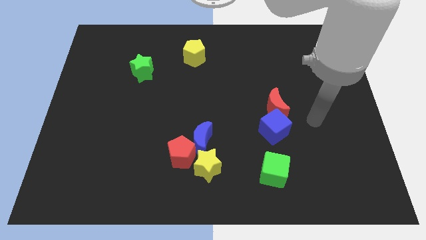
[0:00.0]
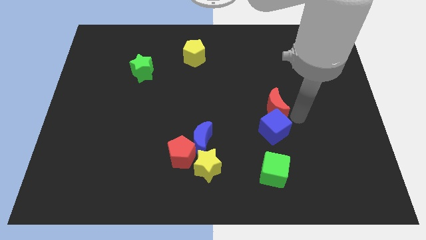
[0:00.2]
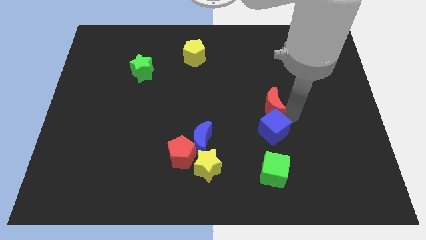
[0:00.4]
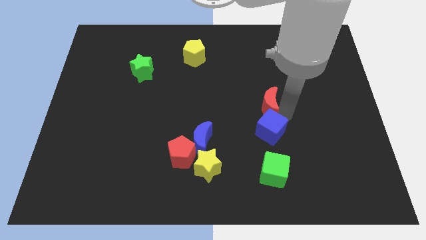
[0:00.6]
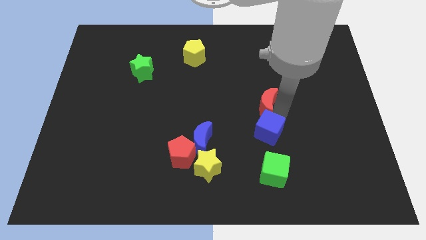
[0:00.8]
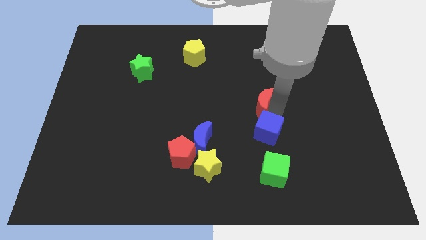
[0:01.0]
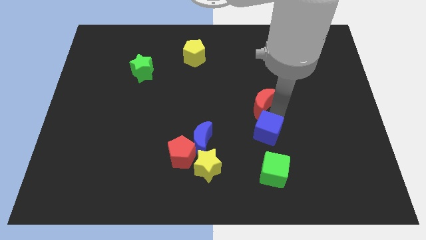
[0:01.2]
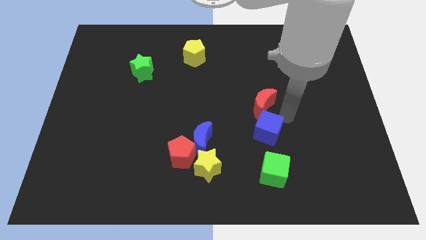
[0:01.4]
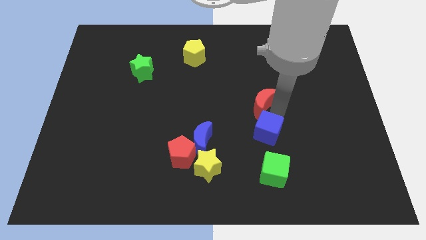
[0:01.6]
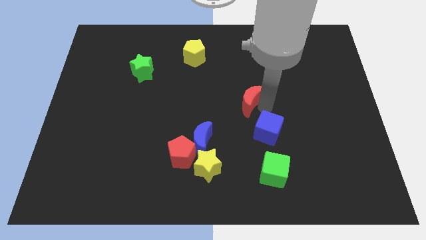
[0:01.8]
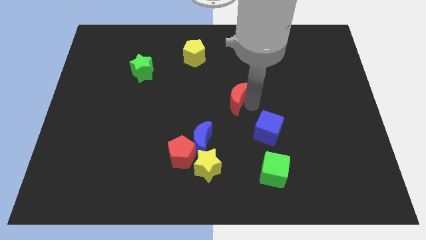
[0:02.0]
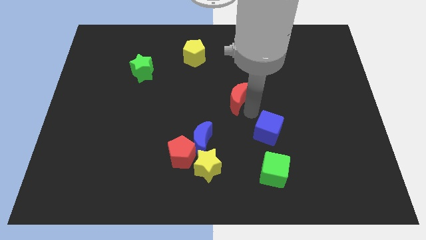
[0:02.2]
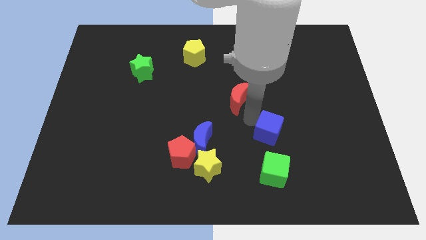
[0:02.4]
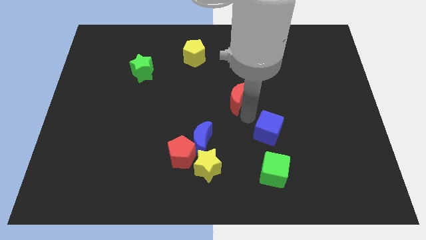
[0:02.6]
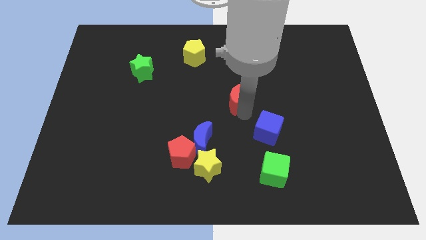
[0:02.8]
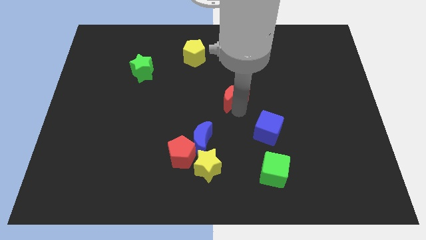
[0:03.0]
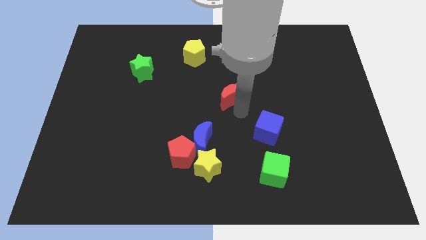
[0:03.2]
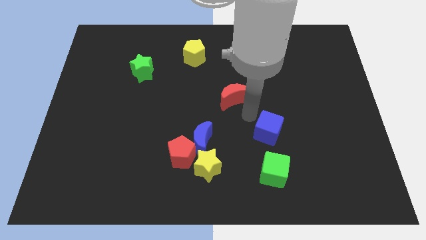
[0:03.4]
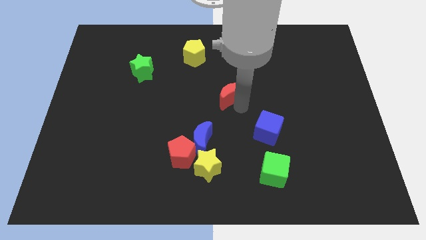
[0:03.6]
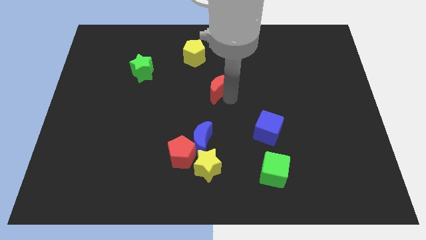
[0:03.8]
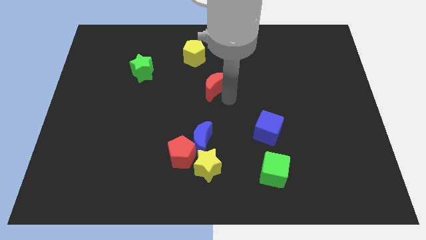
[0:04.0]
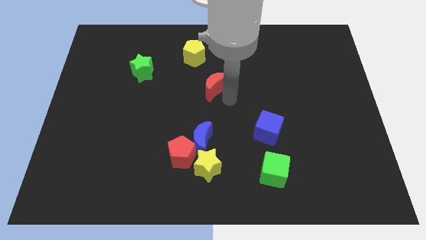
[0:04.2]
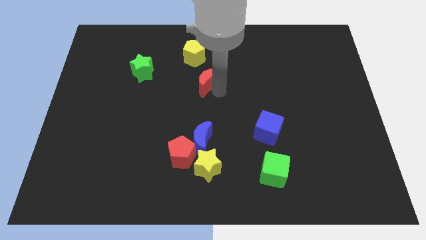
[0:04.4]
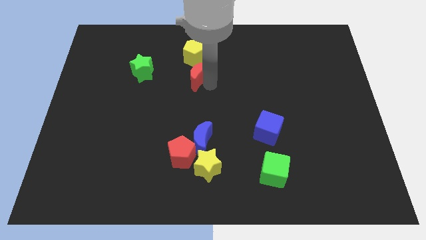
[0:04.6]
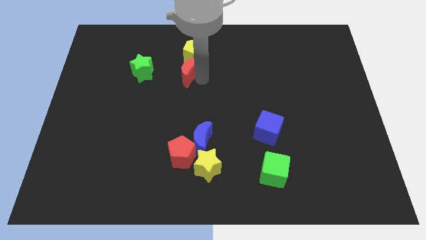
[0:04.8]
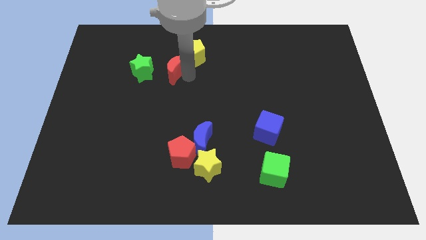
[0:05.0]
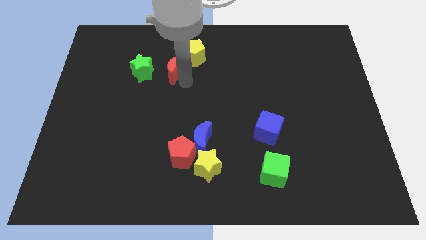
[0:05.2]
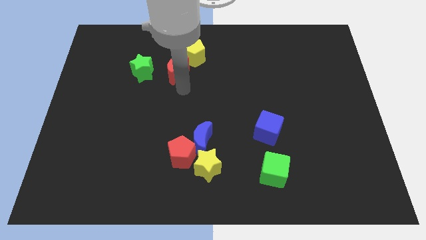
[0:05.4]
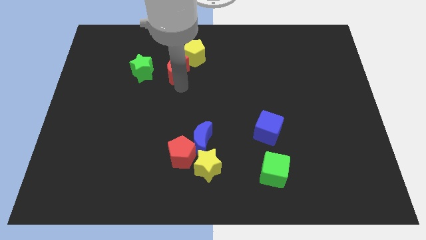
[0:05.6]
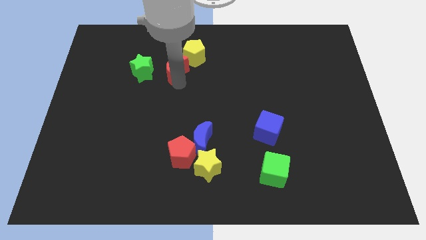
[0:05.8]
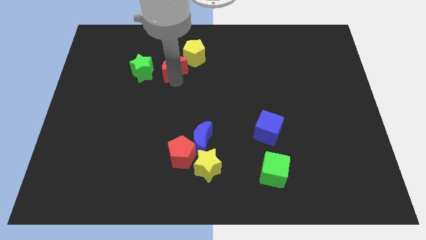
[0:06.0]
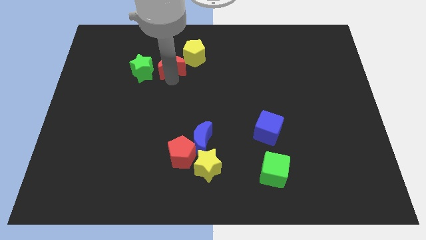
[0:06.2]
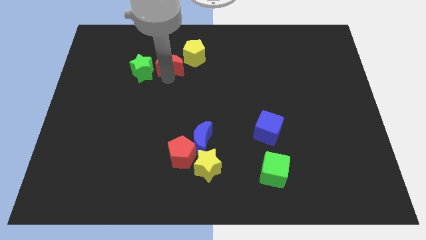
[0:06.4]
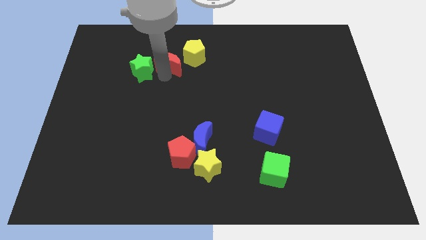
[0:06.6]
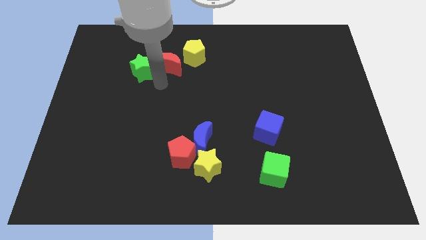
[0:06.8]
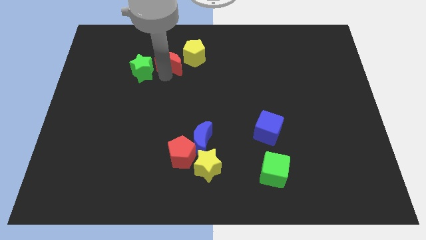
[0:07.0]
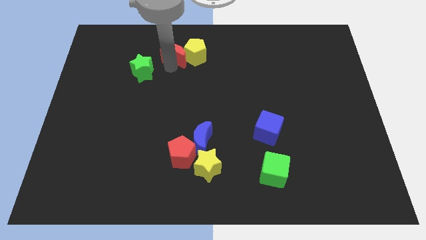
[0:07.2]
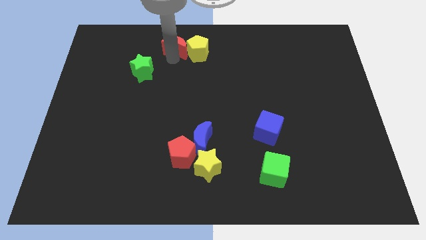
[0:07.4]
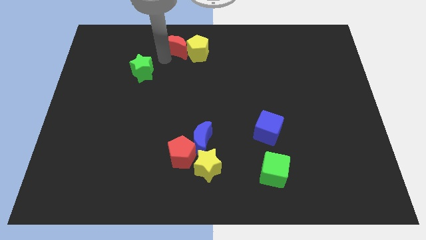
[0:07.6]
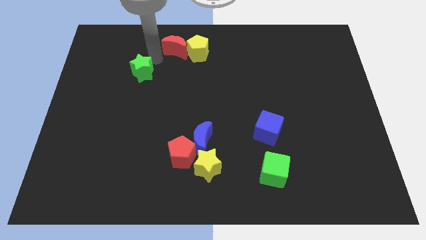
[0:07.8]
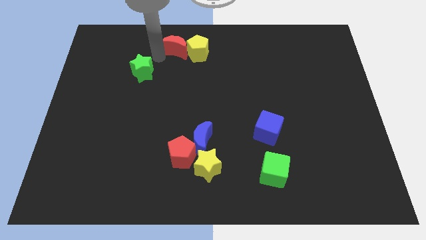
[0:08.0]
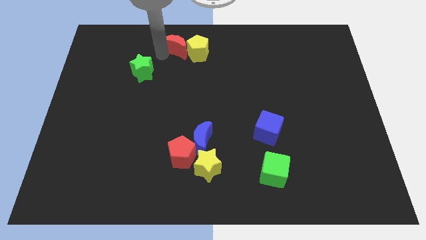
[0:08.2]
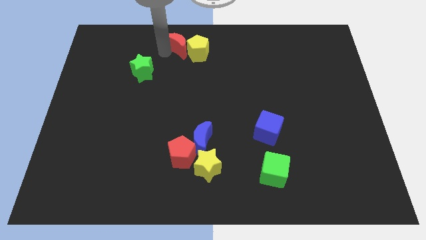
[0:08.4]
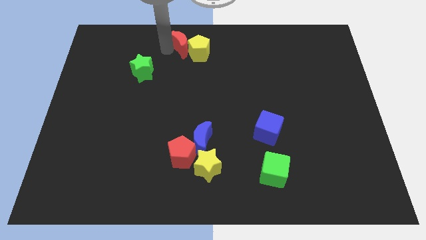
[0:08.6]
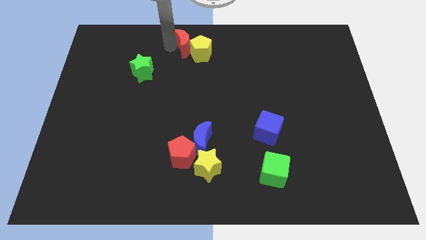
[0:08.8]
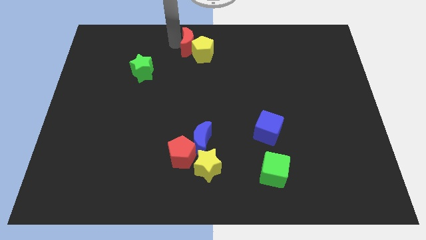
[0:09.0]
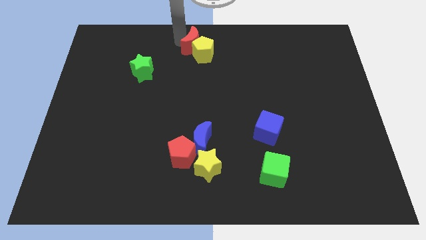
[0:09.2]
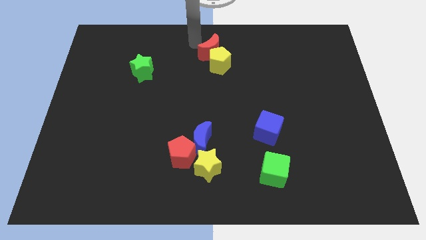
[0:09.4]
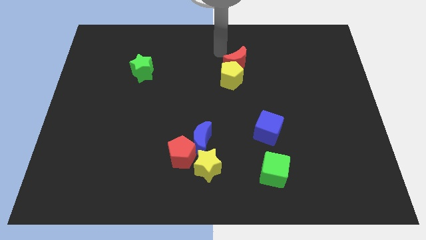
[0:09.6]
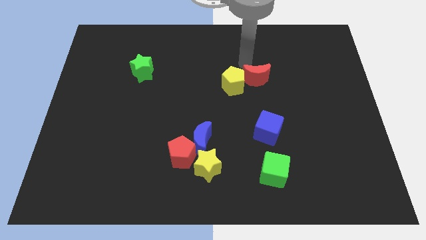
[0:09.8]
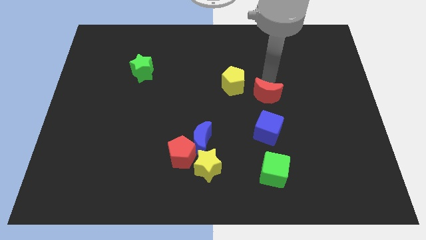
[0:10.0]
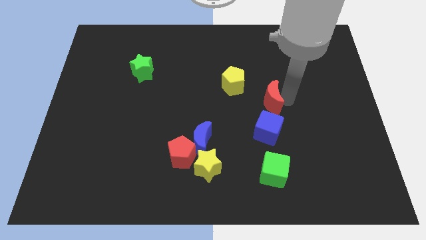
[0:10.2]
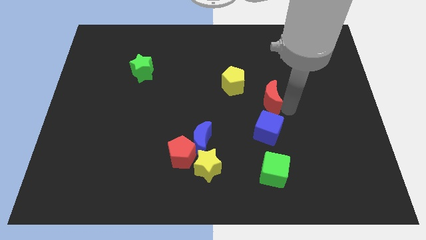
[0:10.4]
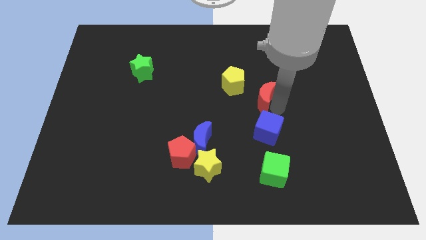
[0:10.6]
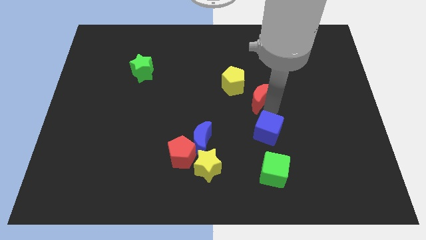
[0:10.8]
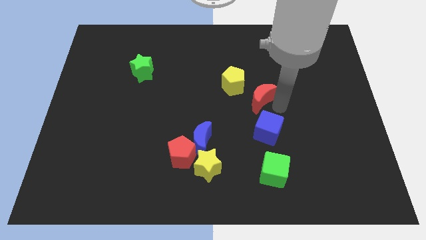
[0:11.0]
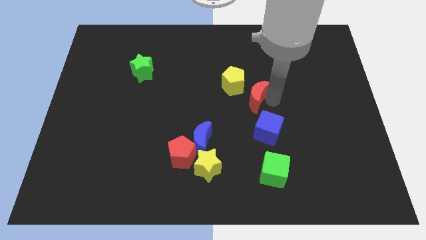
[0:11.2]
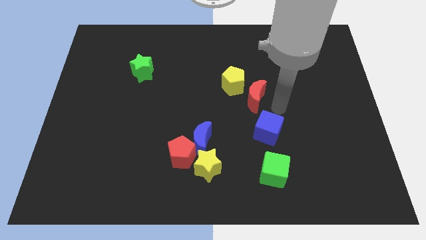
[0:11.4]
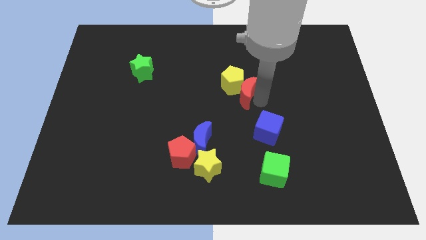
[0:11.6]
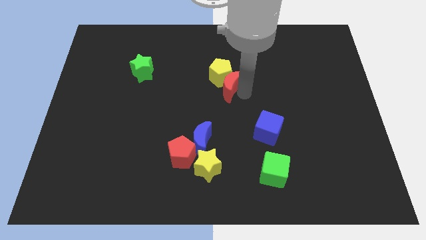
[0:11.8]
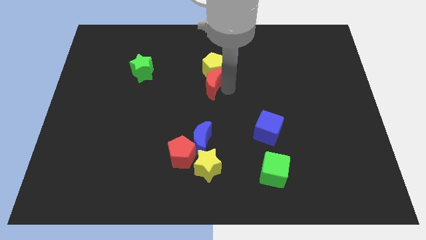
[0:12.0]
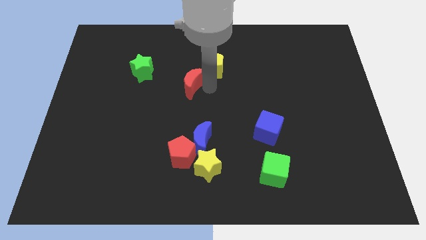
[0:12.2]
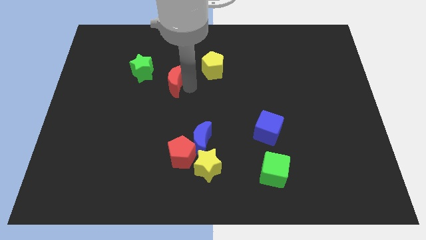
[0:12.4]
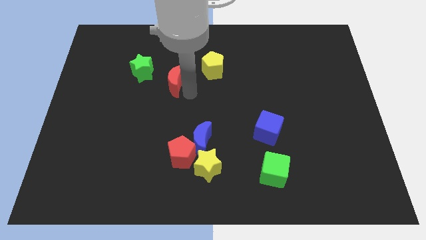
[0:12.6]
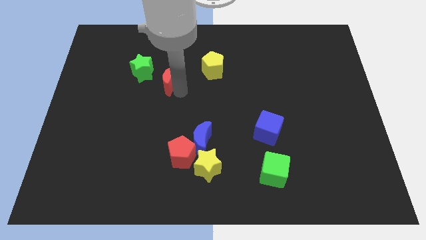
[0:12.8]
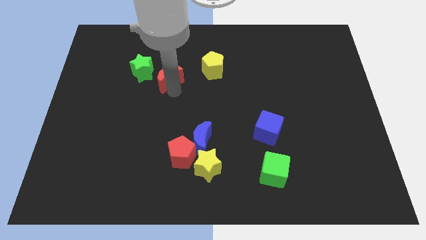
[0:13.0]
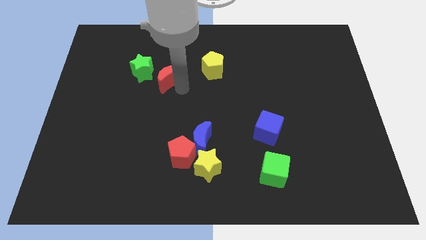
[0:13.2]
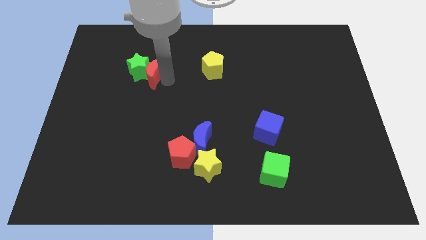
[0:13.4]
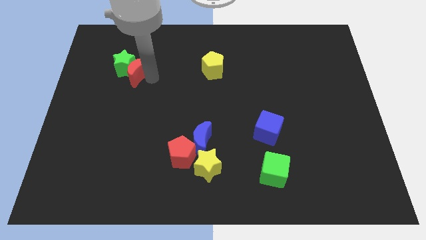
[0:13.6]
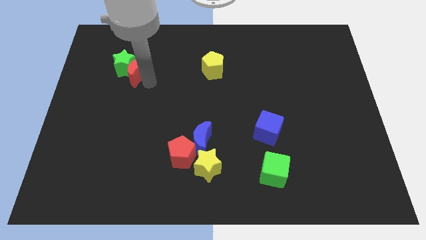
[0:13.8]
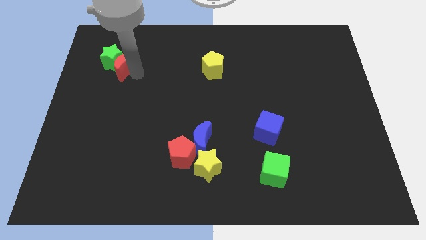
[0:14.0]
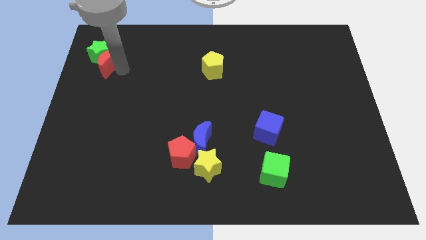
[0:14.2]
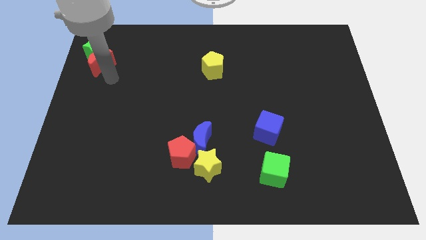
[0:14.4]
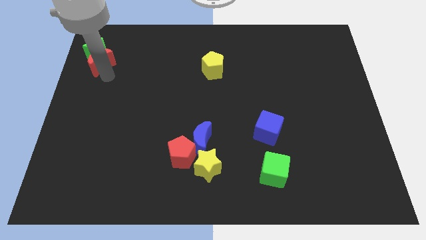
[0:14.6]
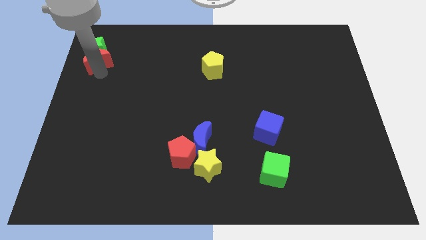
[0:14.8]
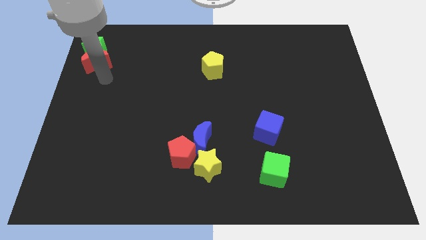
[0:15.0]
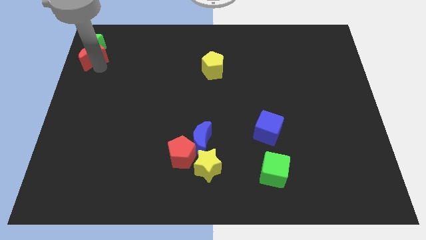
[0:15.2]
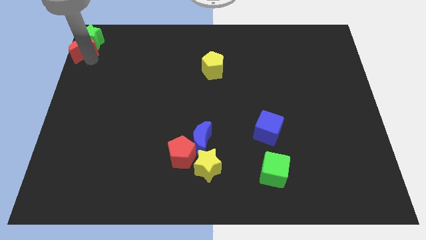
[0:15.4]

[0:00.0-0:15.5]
put the red moon to the top left corner

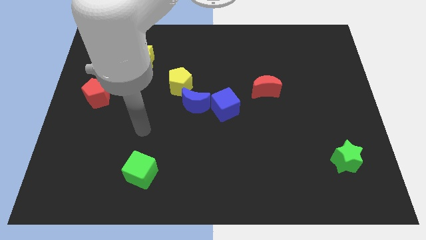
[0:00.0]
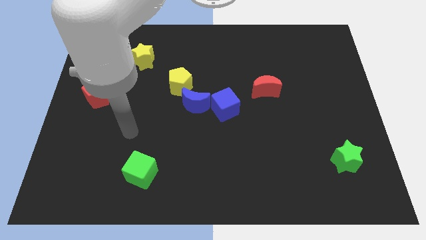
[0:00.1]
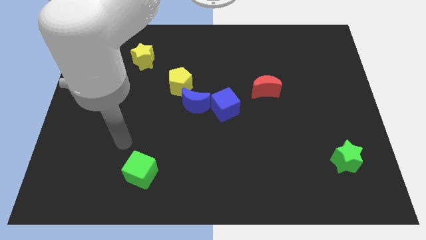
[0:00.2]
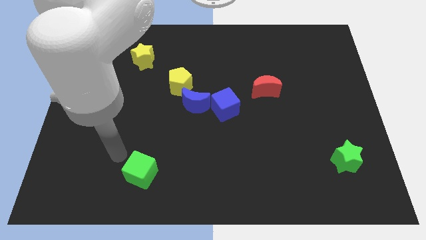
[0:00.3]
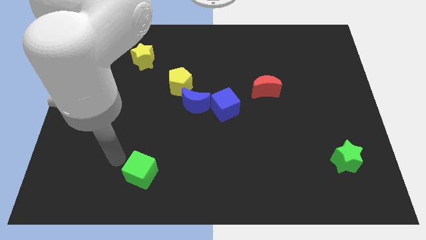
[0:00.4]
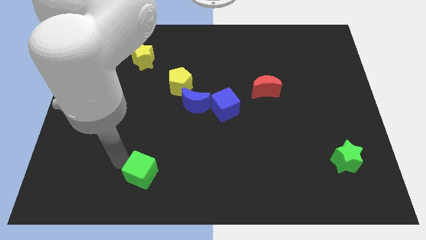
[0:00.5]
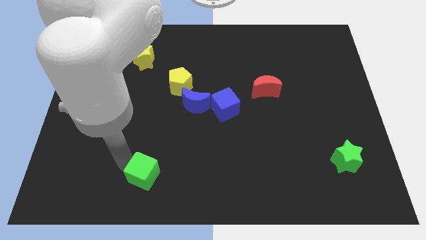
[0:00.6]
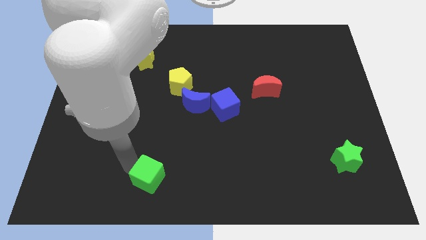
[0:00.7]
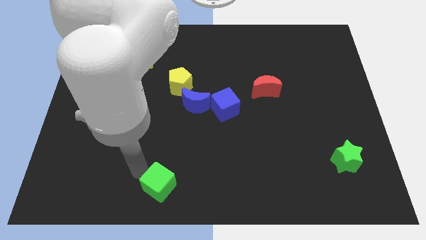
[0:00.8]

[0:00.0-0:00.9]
slide the green cube to the bottom
